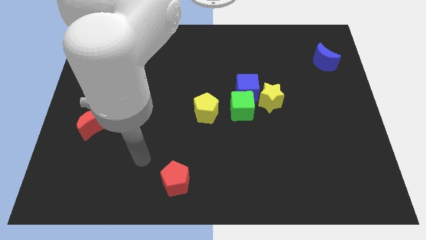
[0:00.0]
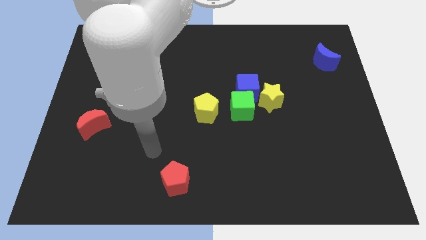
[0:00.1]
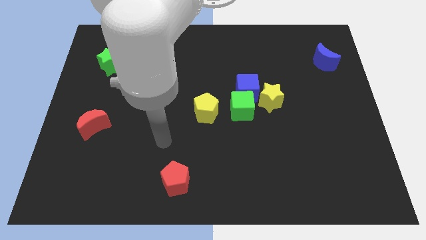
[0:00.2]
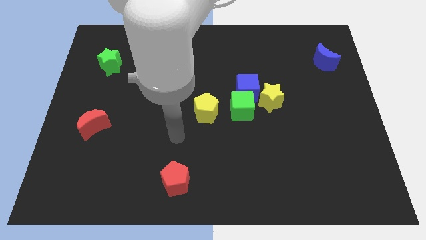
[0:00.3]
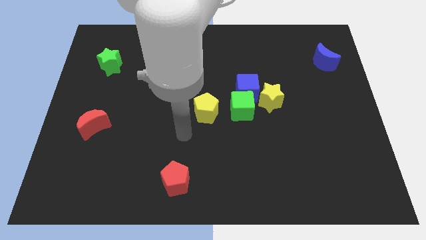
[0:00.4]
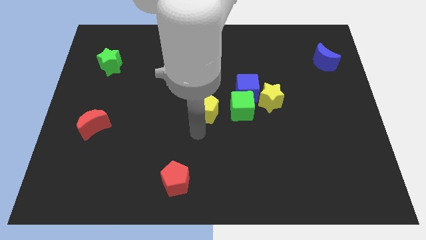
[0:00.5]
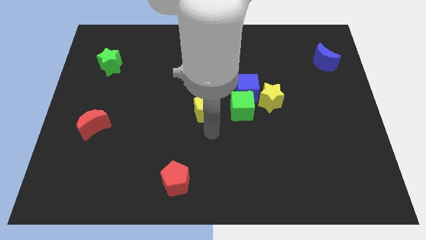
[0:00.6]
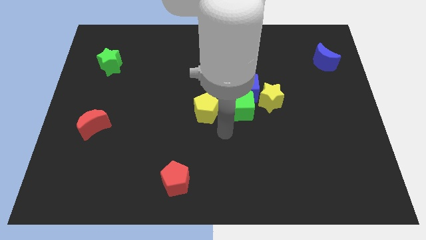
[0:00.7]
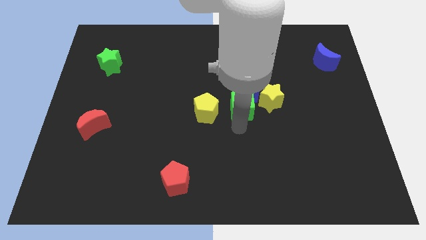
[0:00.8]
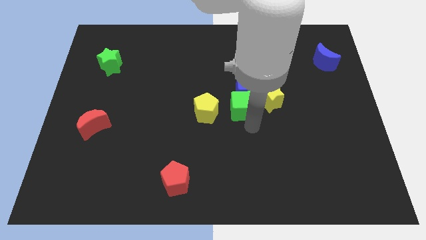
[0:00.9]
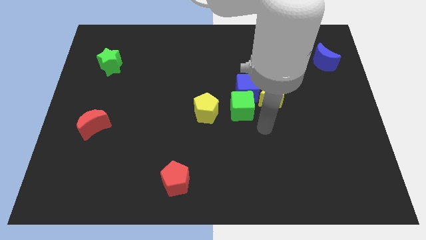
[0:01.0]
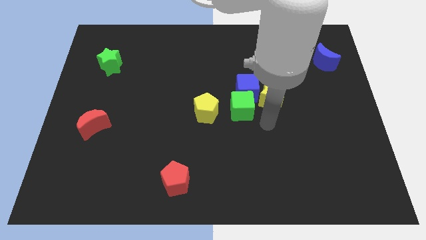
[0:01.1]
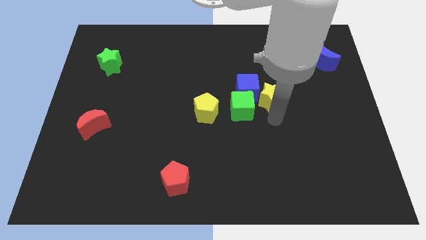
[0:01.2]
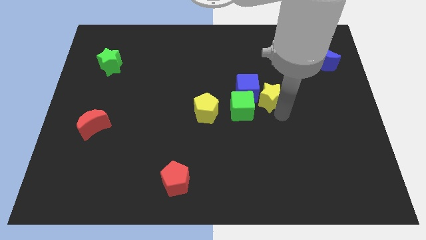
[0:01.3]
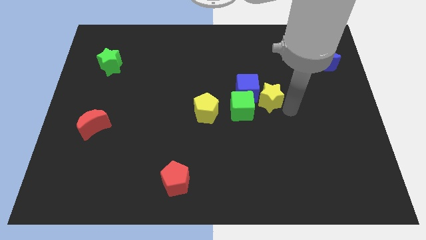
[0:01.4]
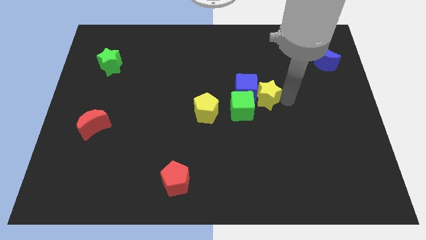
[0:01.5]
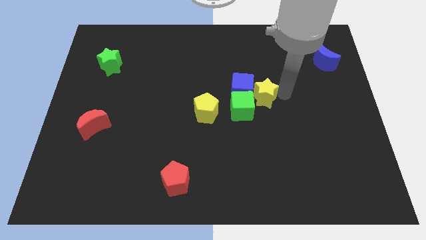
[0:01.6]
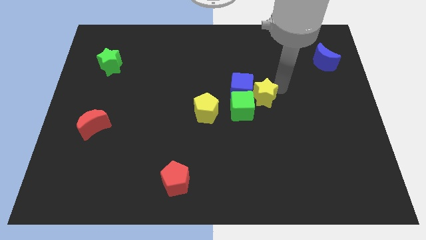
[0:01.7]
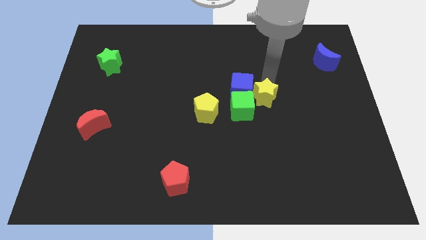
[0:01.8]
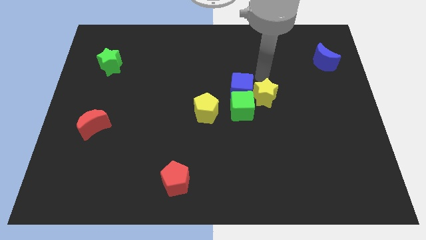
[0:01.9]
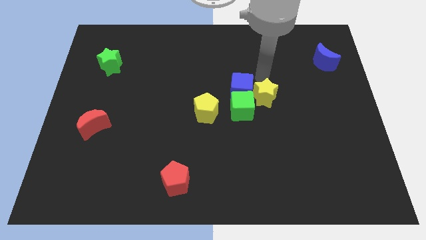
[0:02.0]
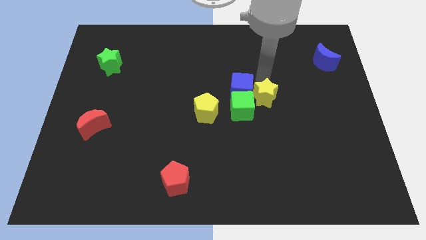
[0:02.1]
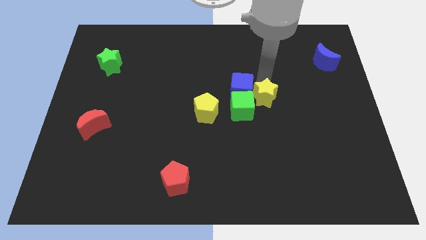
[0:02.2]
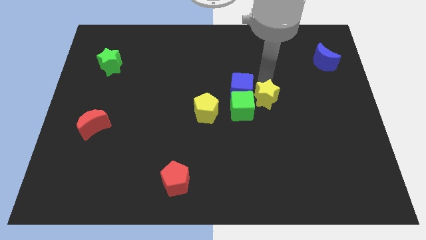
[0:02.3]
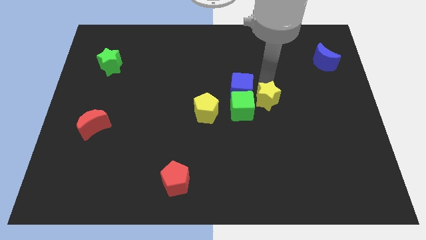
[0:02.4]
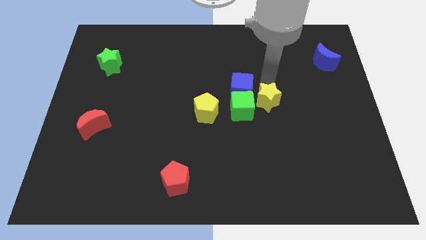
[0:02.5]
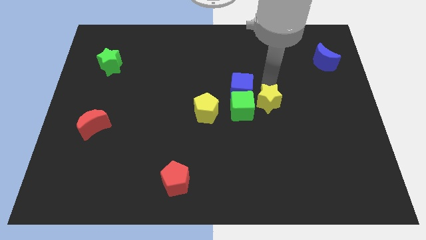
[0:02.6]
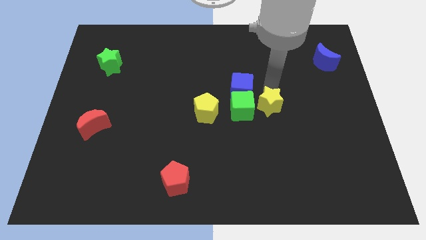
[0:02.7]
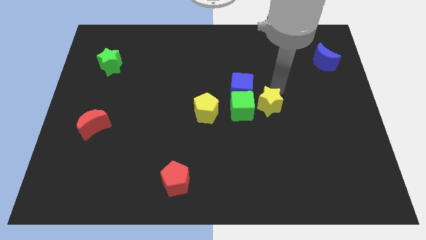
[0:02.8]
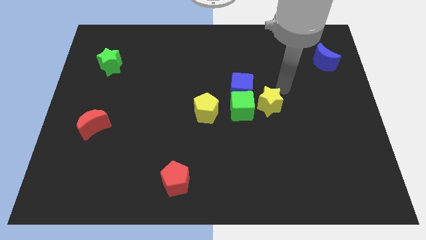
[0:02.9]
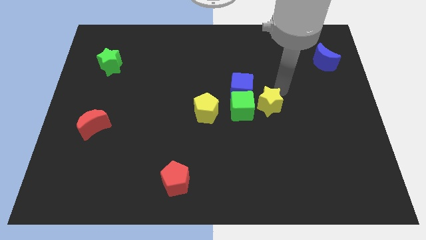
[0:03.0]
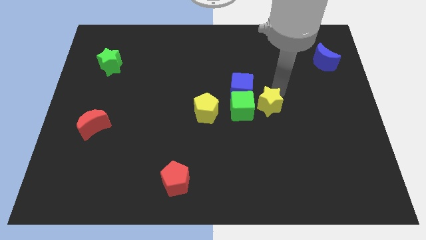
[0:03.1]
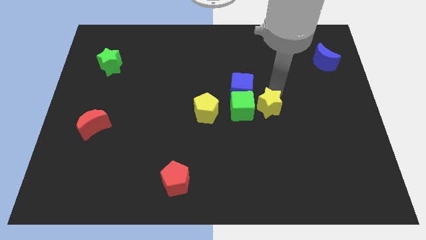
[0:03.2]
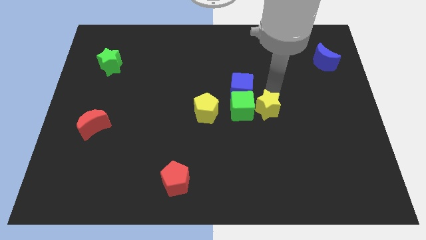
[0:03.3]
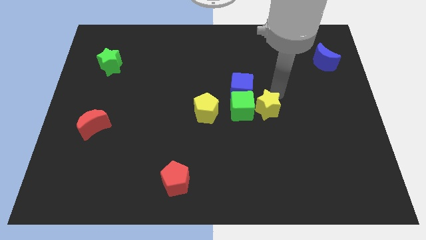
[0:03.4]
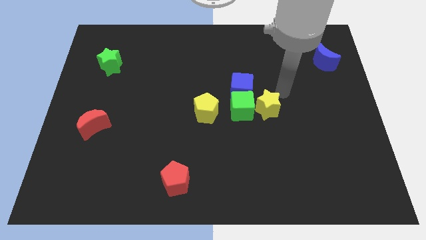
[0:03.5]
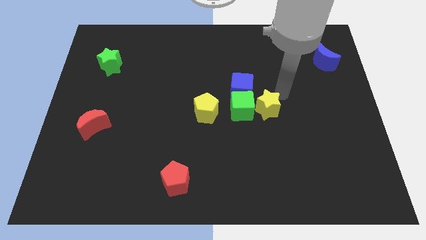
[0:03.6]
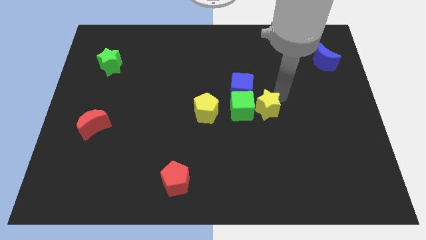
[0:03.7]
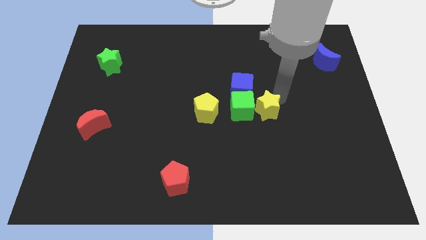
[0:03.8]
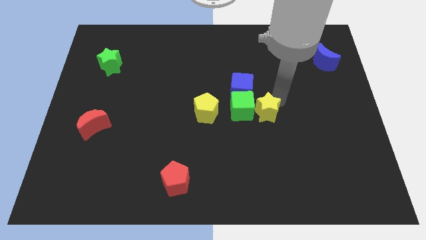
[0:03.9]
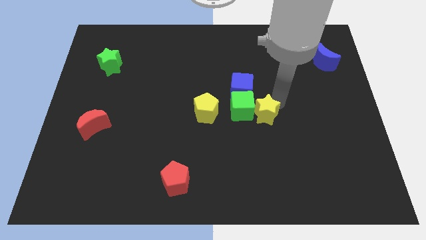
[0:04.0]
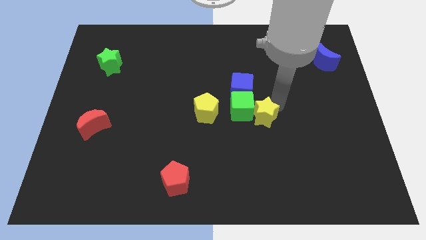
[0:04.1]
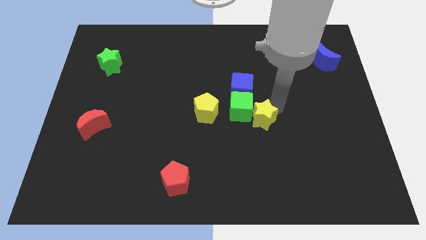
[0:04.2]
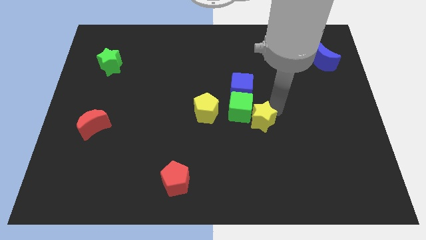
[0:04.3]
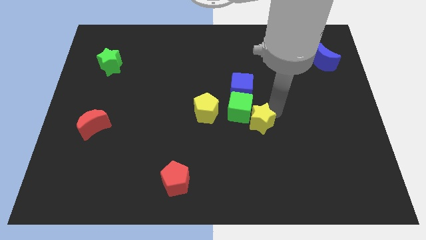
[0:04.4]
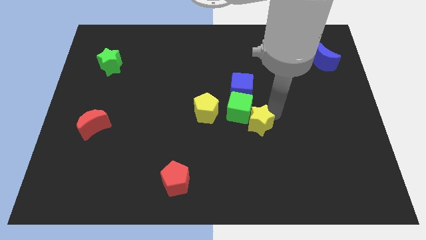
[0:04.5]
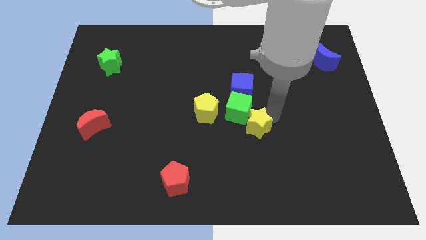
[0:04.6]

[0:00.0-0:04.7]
move the yellow star downwards and to the left diagonally a bit

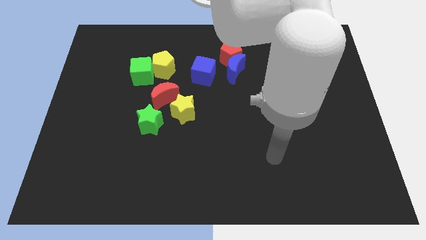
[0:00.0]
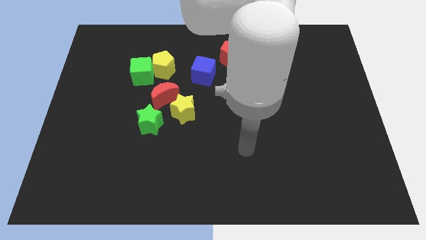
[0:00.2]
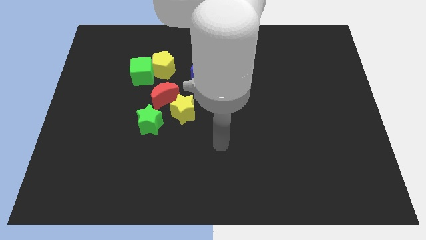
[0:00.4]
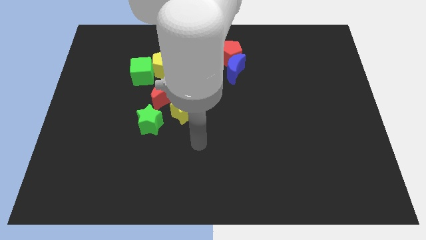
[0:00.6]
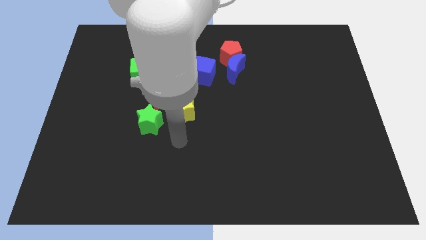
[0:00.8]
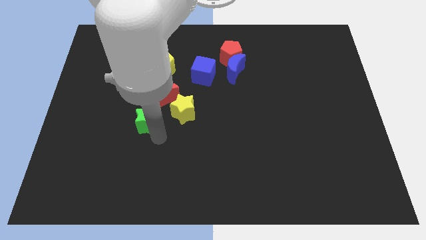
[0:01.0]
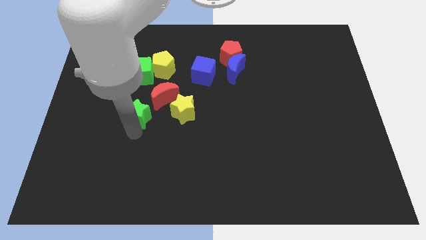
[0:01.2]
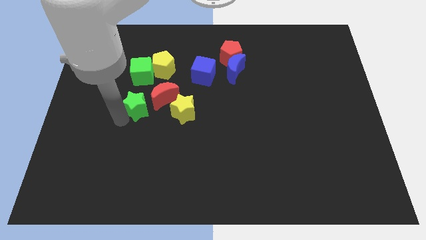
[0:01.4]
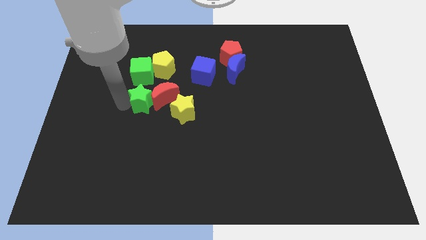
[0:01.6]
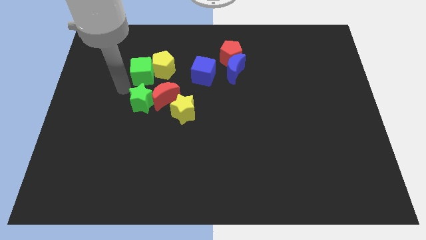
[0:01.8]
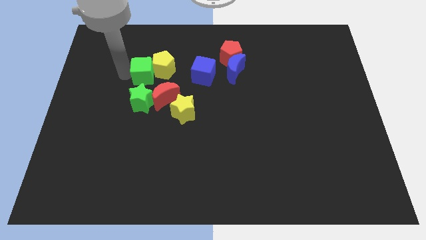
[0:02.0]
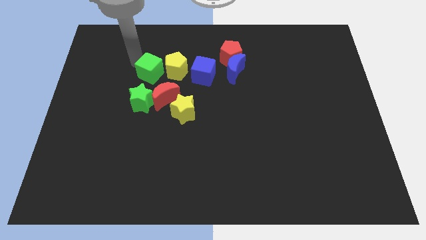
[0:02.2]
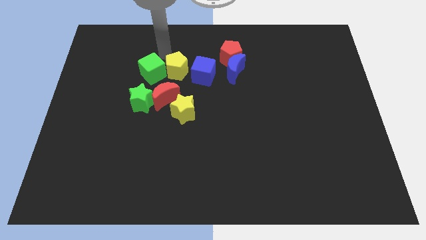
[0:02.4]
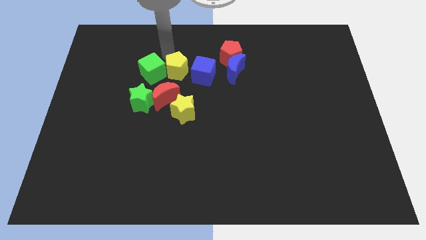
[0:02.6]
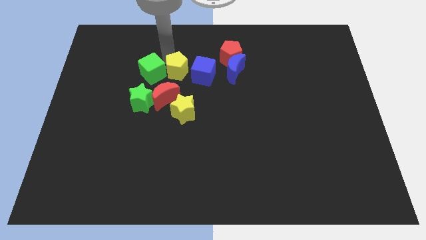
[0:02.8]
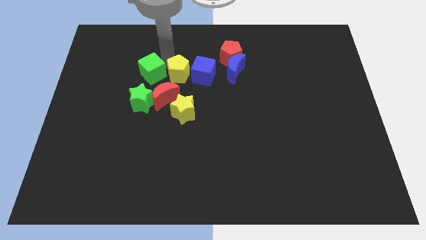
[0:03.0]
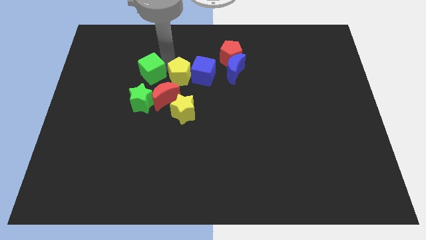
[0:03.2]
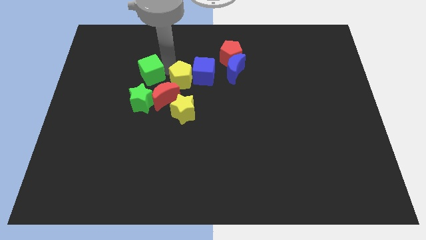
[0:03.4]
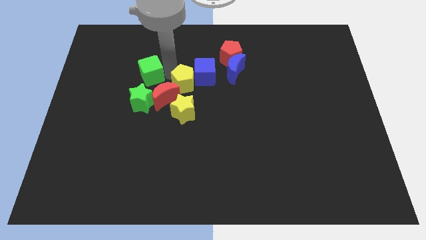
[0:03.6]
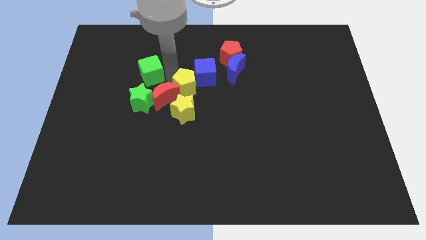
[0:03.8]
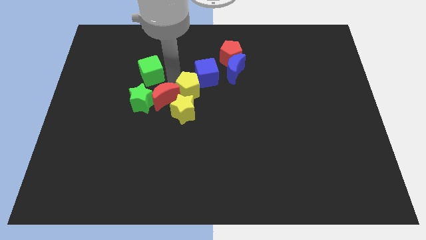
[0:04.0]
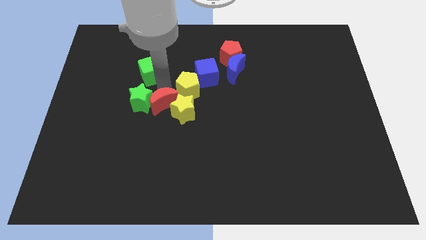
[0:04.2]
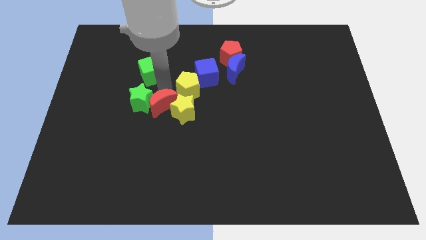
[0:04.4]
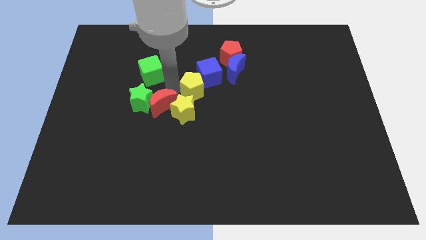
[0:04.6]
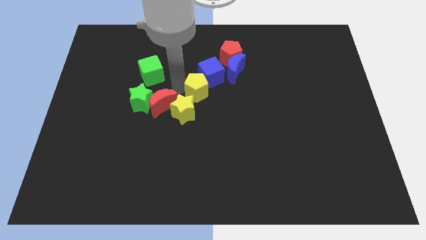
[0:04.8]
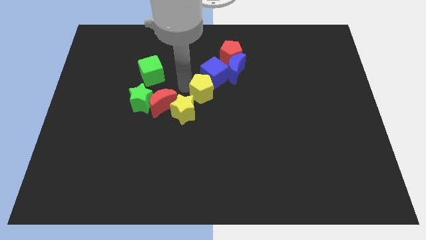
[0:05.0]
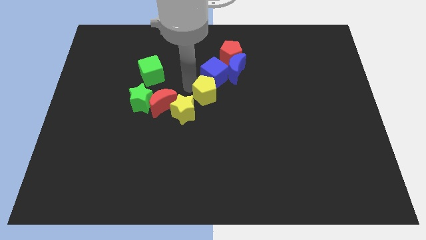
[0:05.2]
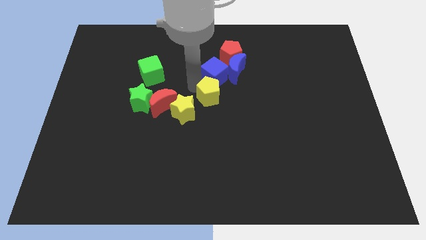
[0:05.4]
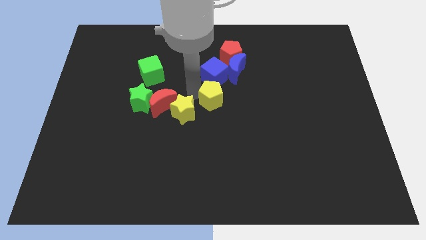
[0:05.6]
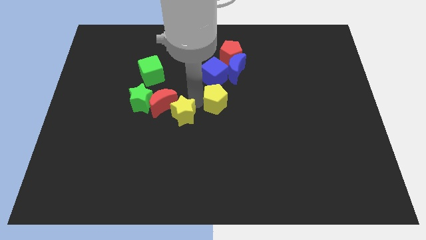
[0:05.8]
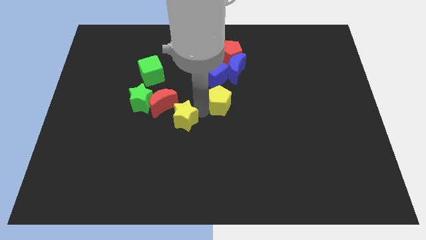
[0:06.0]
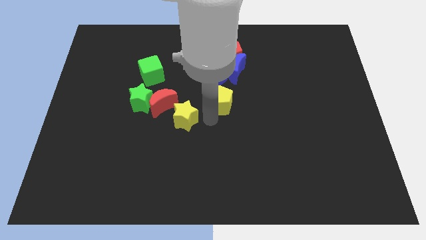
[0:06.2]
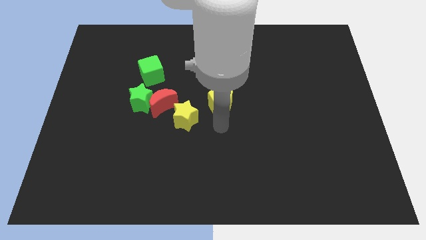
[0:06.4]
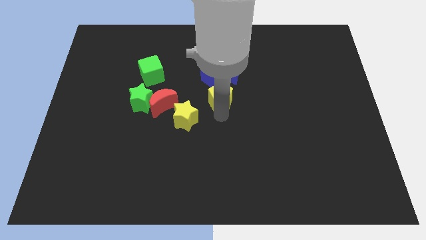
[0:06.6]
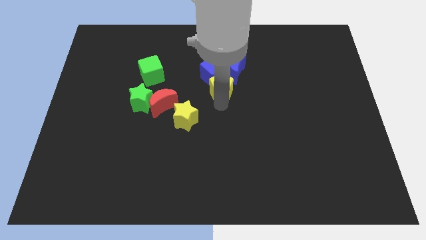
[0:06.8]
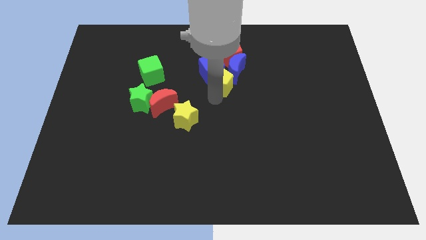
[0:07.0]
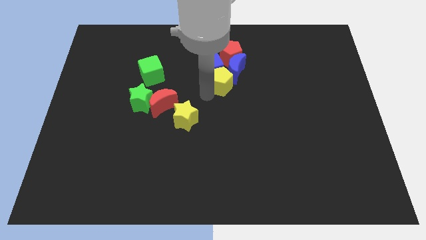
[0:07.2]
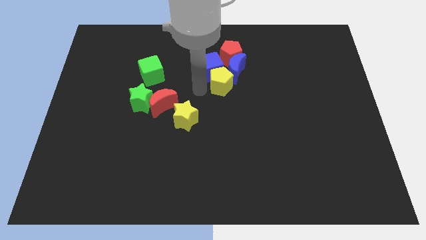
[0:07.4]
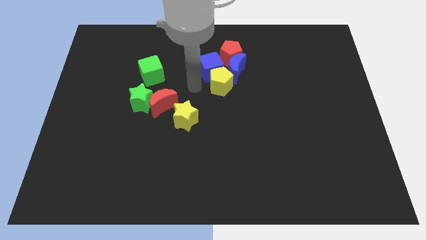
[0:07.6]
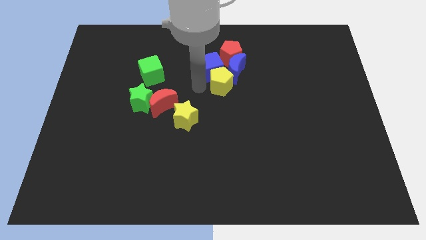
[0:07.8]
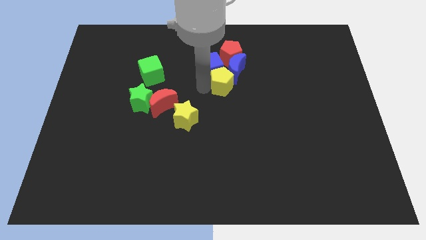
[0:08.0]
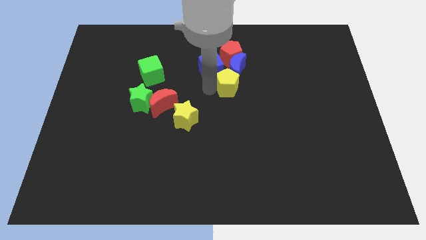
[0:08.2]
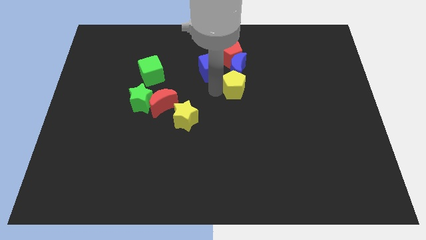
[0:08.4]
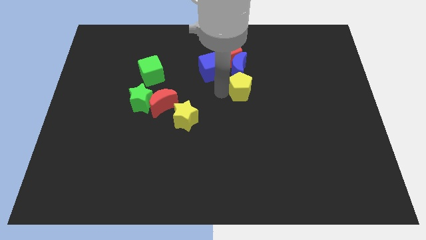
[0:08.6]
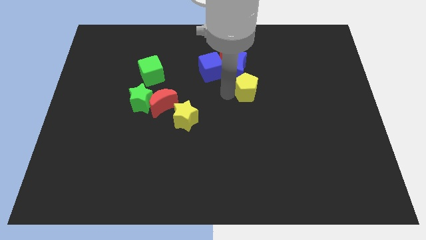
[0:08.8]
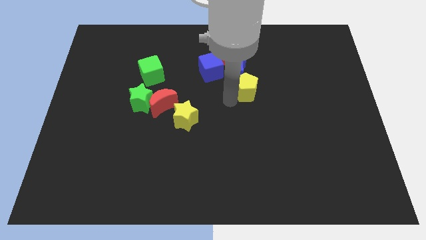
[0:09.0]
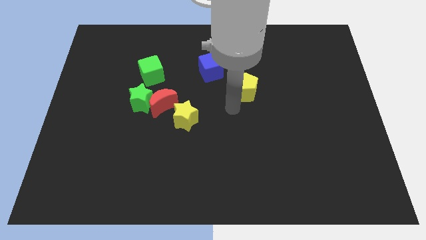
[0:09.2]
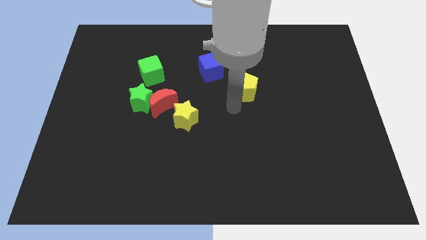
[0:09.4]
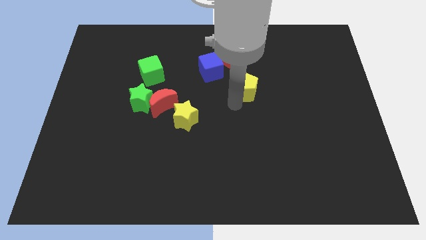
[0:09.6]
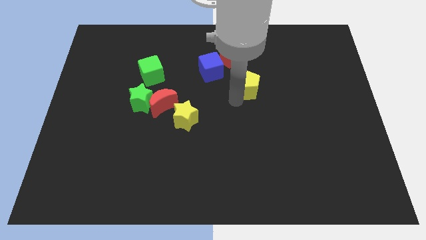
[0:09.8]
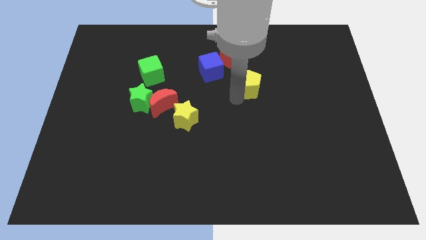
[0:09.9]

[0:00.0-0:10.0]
move the yellow pentagon right
